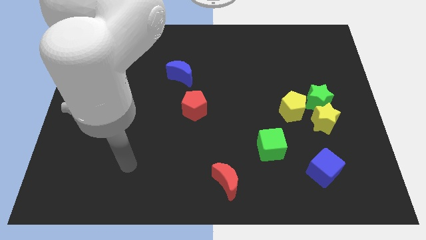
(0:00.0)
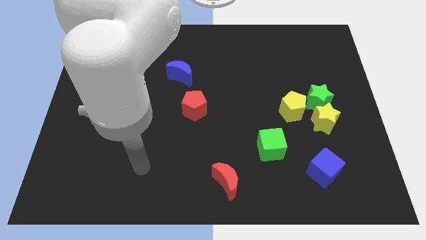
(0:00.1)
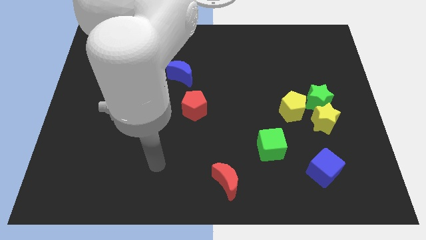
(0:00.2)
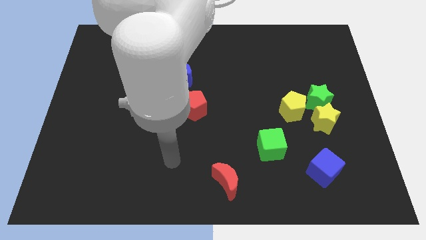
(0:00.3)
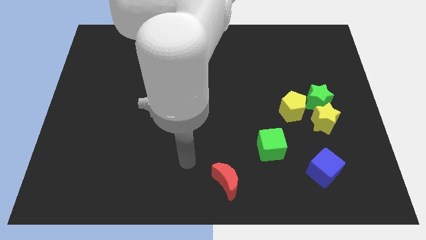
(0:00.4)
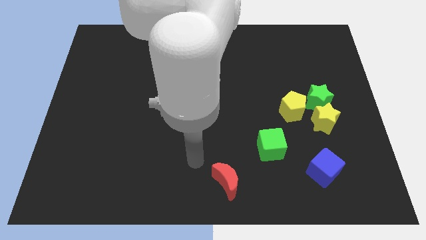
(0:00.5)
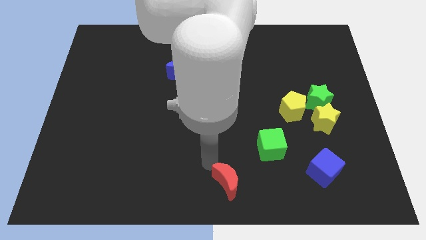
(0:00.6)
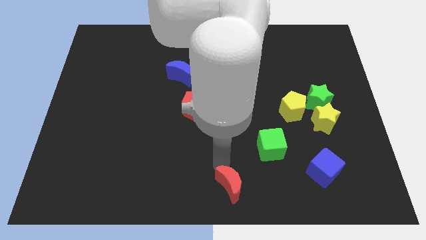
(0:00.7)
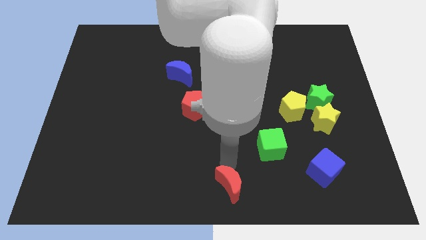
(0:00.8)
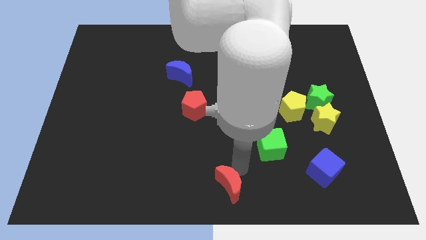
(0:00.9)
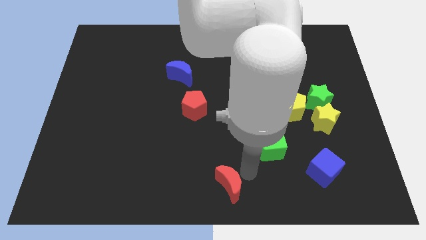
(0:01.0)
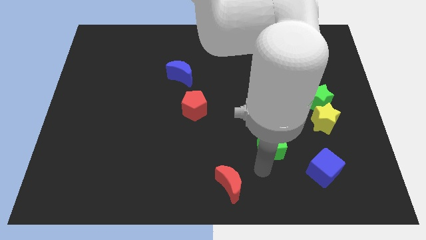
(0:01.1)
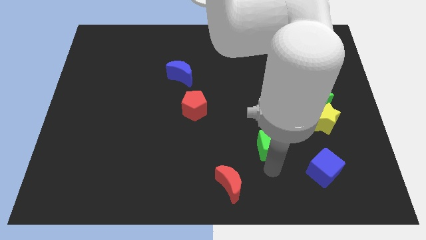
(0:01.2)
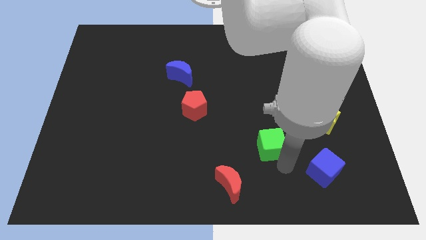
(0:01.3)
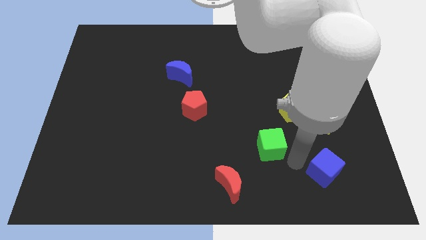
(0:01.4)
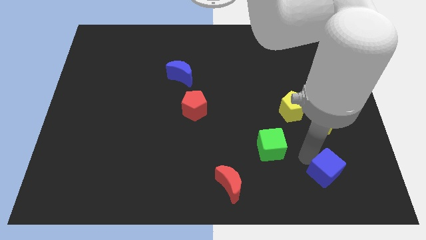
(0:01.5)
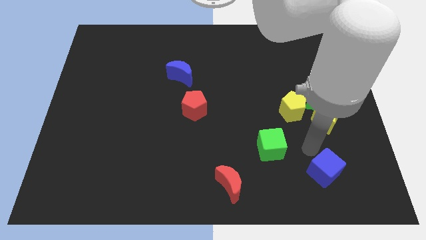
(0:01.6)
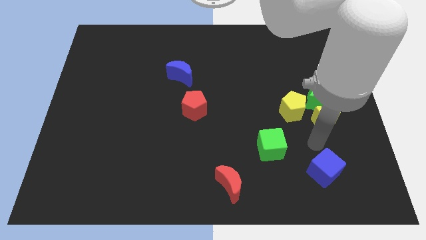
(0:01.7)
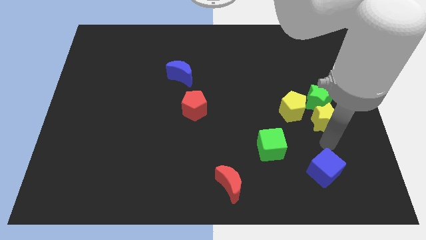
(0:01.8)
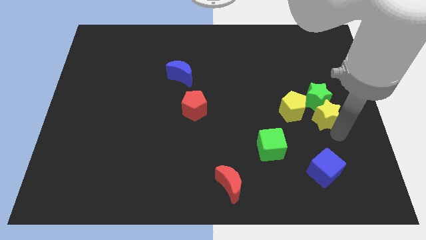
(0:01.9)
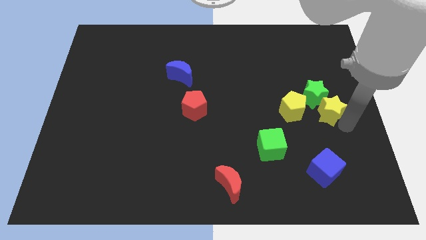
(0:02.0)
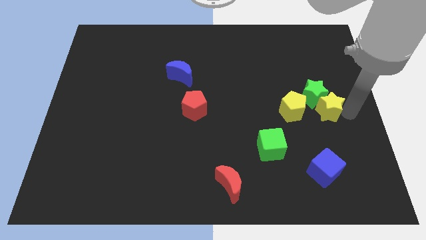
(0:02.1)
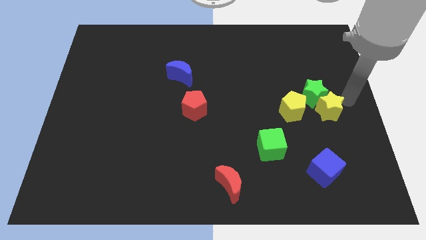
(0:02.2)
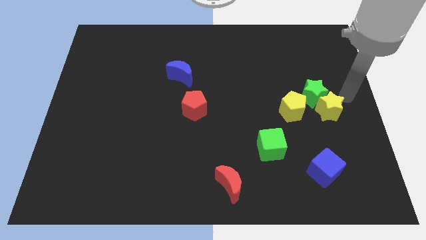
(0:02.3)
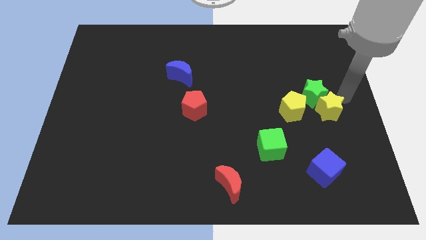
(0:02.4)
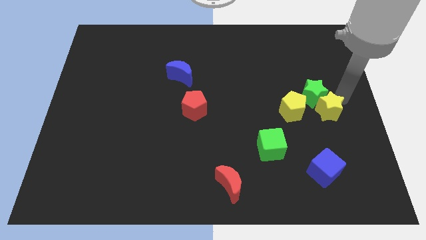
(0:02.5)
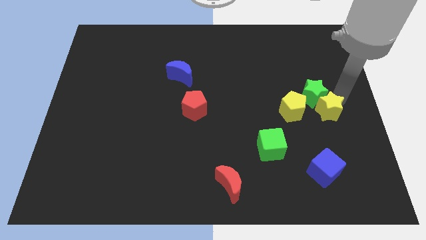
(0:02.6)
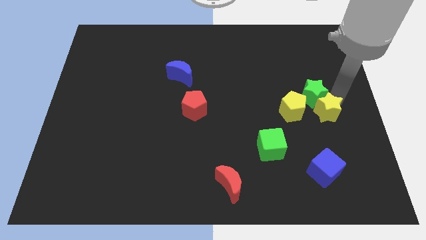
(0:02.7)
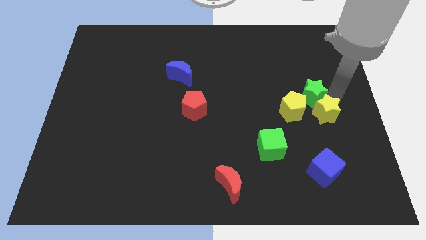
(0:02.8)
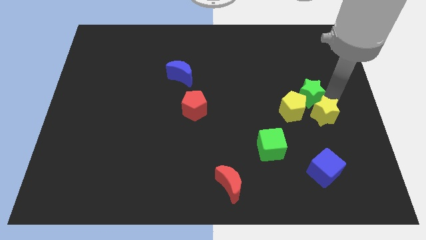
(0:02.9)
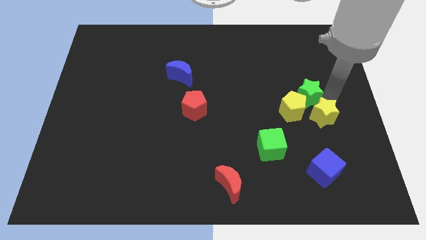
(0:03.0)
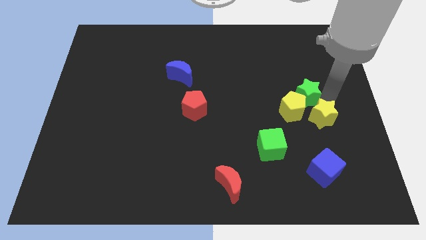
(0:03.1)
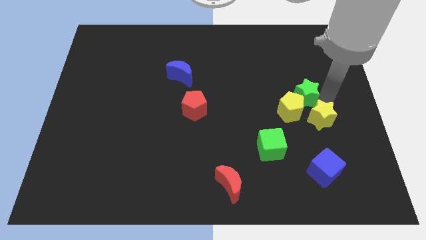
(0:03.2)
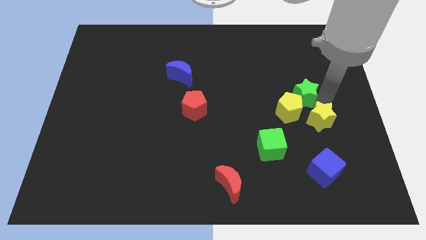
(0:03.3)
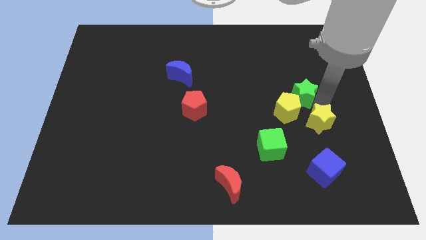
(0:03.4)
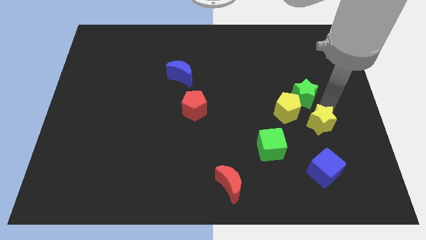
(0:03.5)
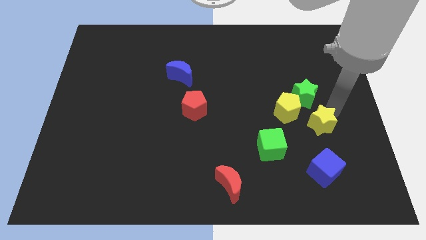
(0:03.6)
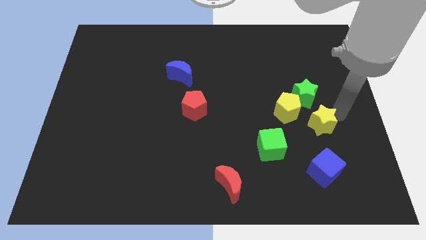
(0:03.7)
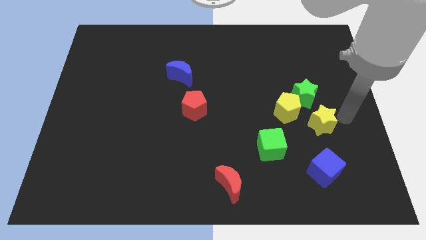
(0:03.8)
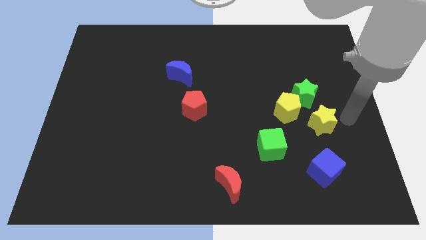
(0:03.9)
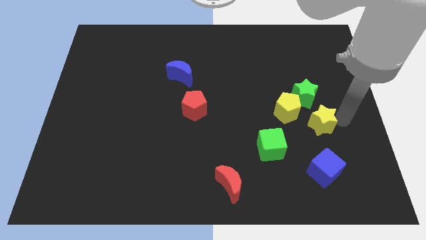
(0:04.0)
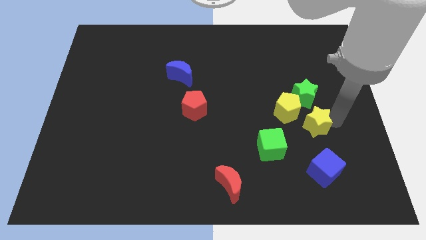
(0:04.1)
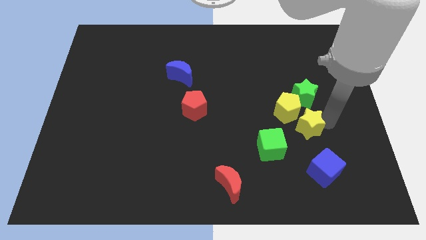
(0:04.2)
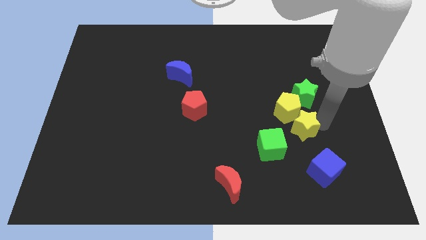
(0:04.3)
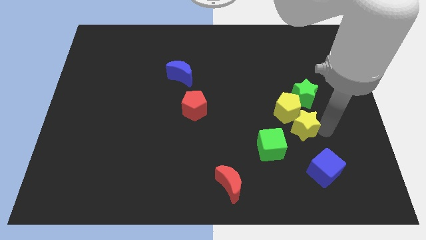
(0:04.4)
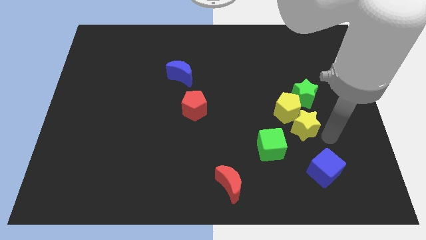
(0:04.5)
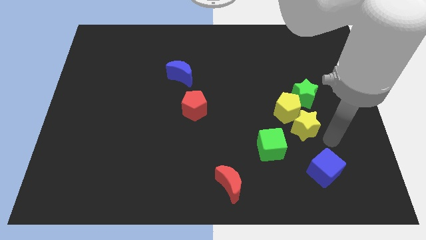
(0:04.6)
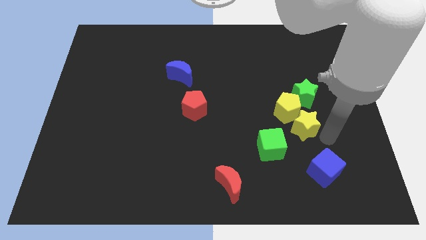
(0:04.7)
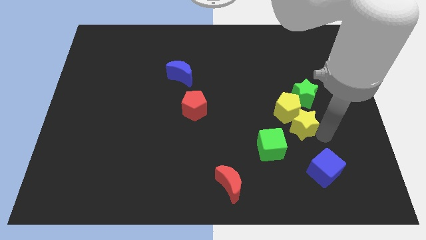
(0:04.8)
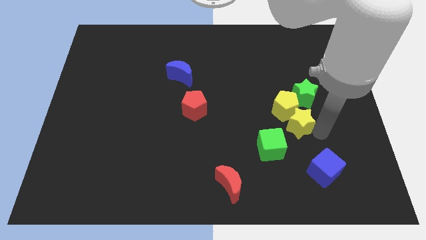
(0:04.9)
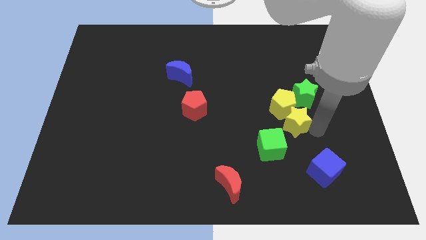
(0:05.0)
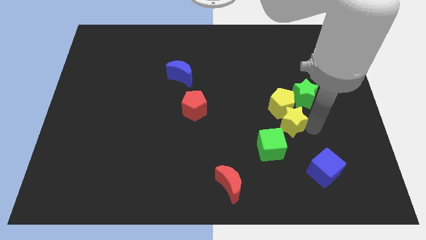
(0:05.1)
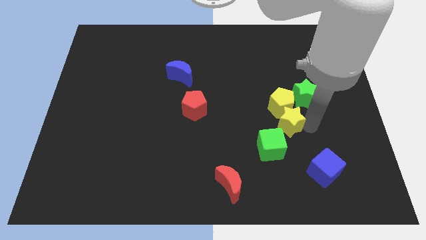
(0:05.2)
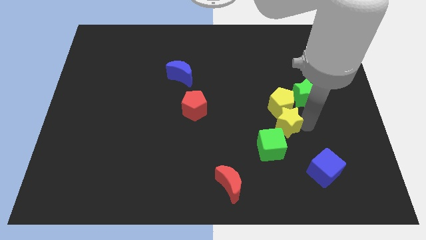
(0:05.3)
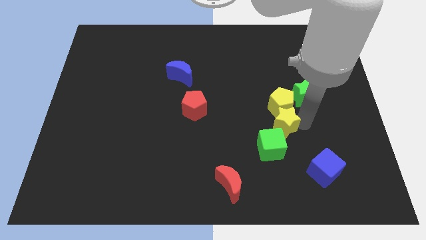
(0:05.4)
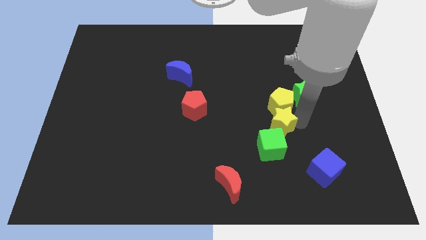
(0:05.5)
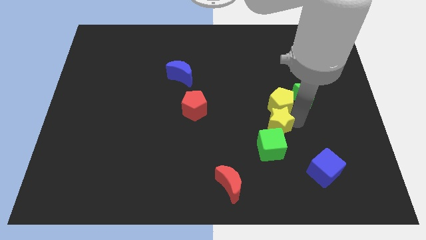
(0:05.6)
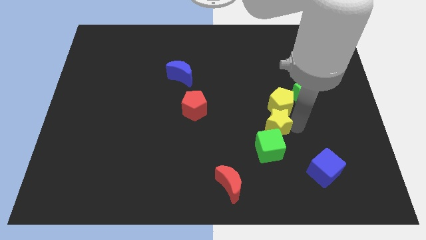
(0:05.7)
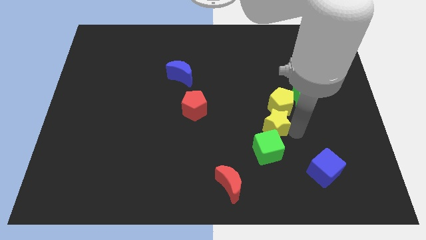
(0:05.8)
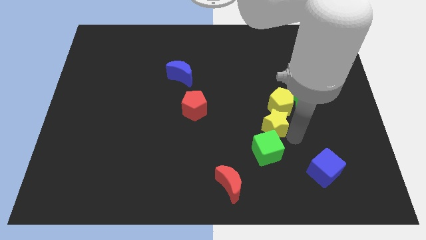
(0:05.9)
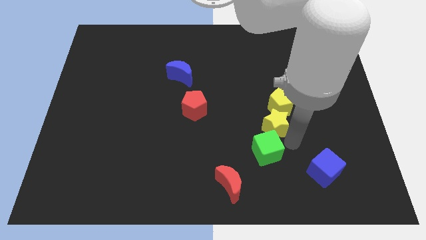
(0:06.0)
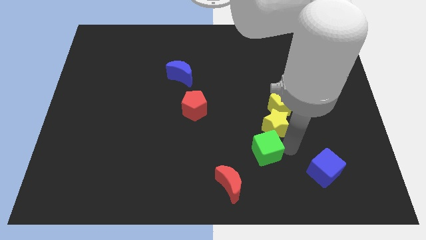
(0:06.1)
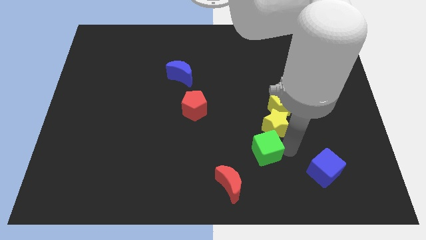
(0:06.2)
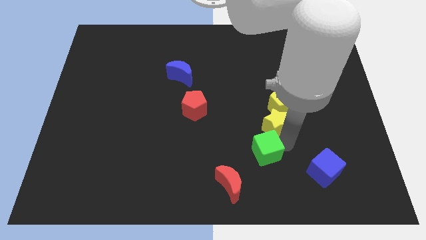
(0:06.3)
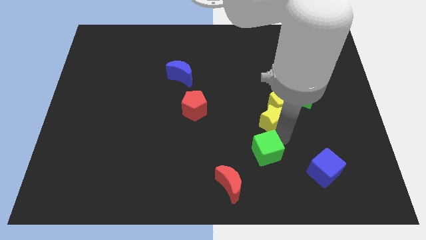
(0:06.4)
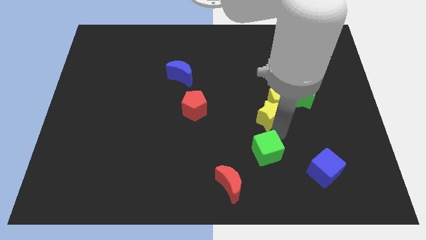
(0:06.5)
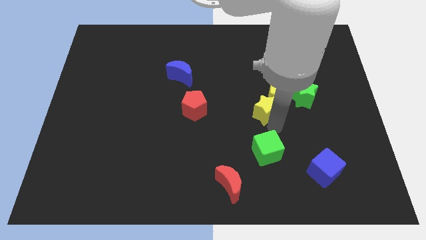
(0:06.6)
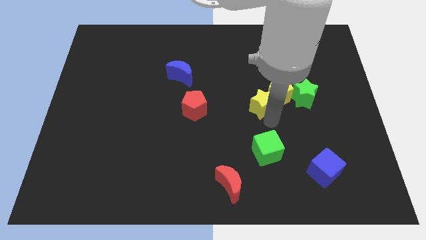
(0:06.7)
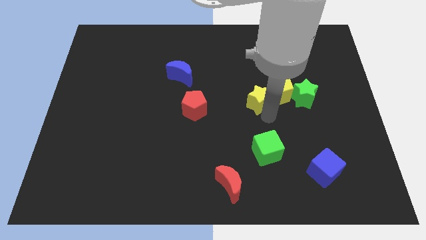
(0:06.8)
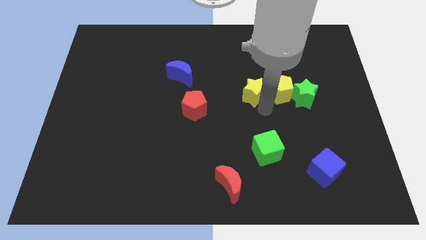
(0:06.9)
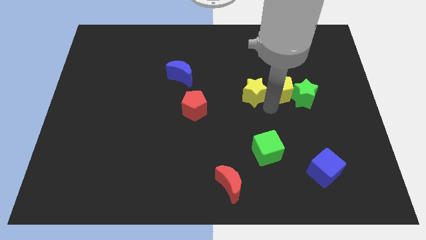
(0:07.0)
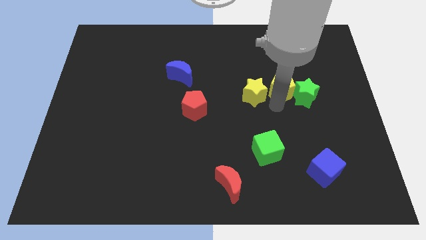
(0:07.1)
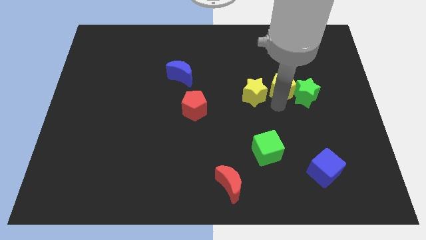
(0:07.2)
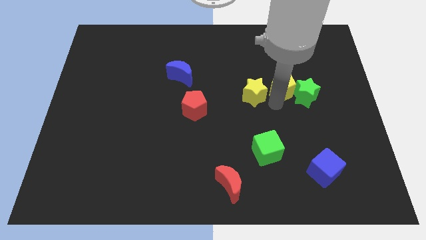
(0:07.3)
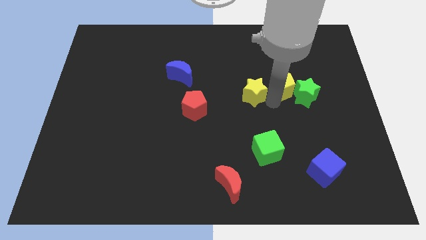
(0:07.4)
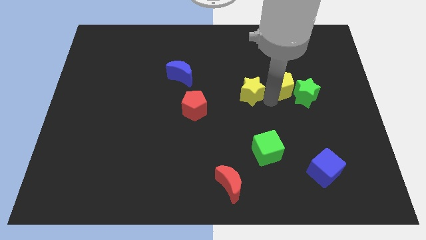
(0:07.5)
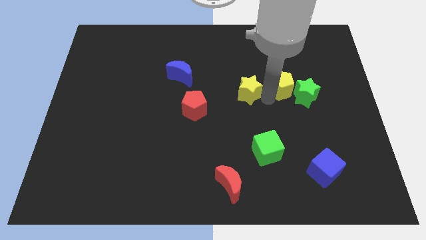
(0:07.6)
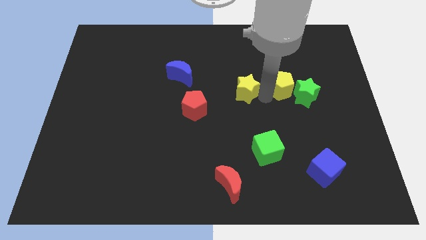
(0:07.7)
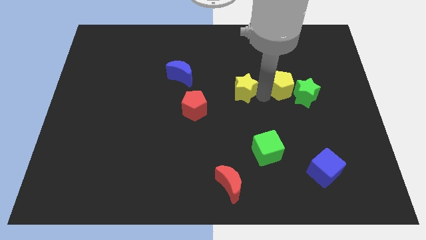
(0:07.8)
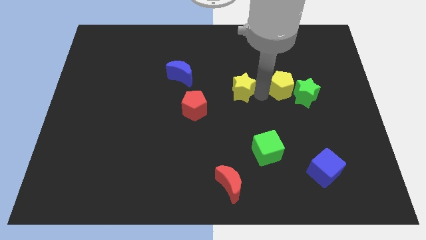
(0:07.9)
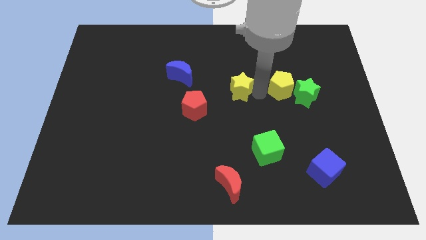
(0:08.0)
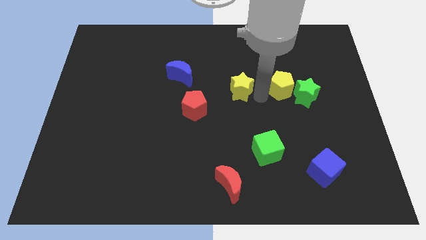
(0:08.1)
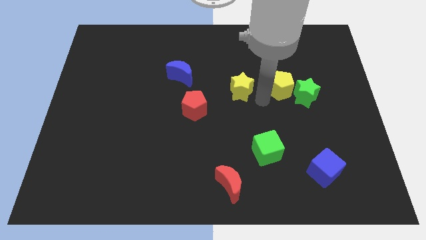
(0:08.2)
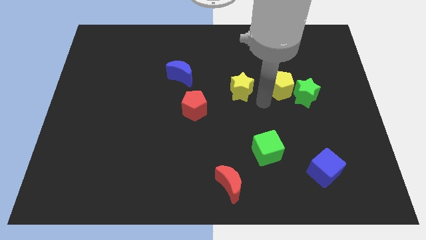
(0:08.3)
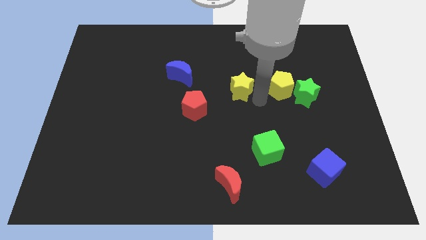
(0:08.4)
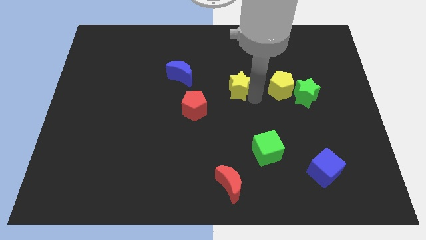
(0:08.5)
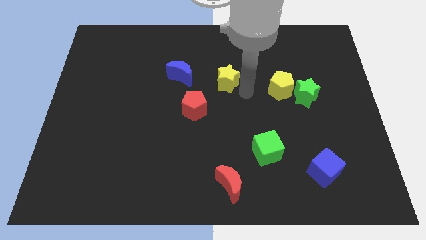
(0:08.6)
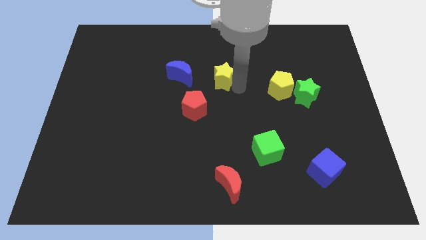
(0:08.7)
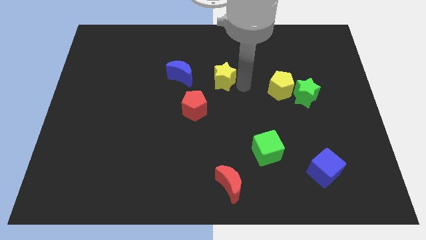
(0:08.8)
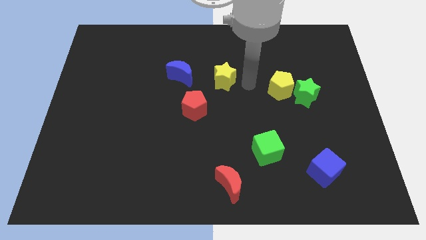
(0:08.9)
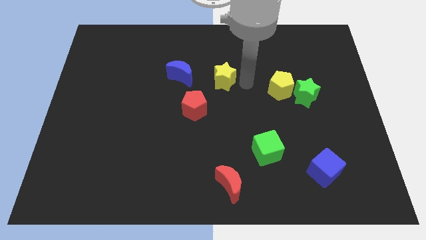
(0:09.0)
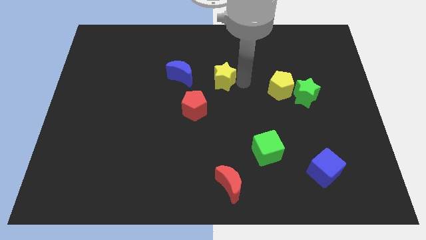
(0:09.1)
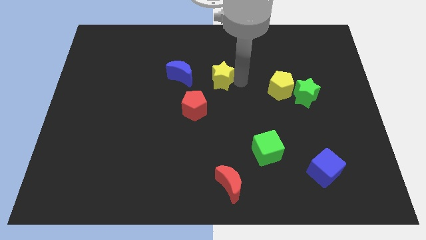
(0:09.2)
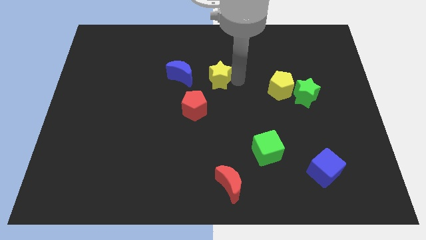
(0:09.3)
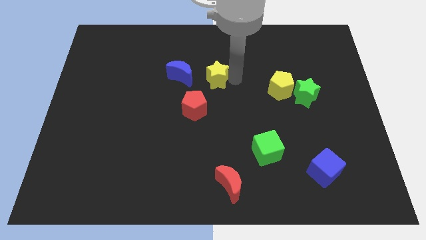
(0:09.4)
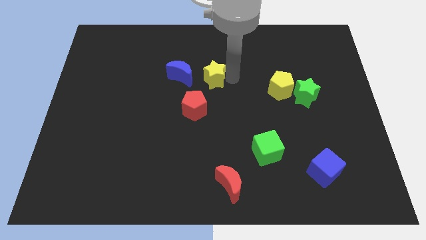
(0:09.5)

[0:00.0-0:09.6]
move the yellow star to the top side of the red pentagon
